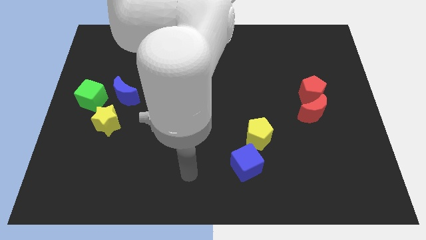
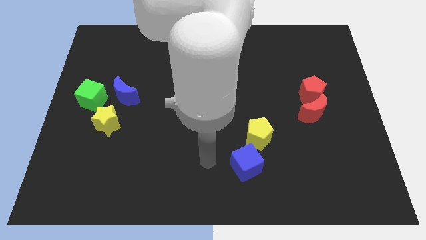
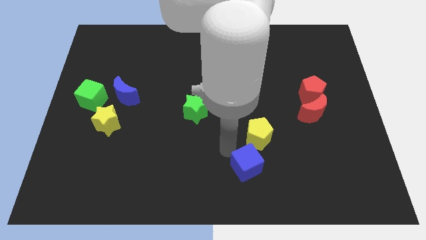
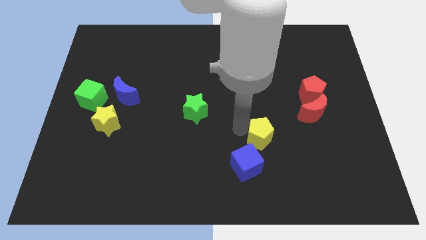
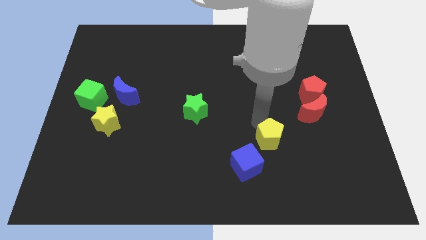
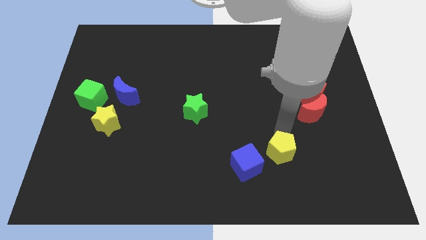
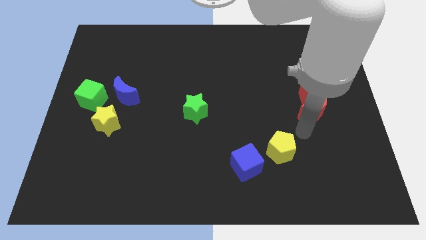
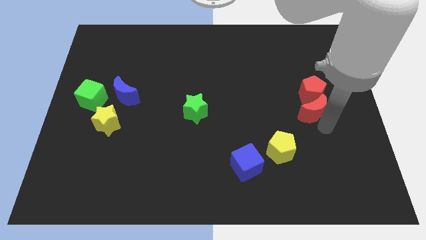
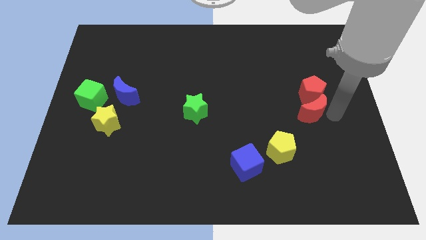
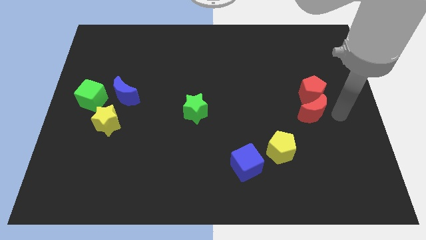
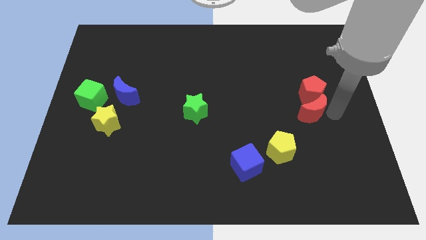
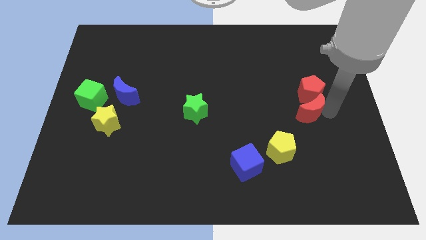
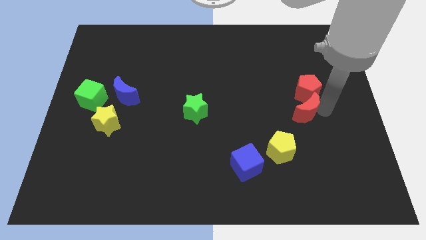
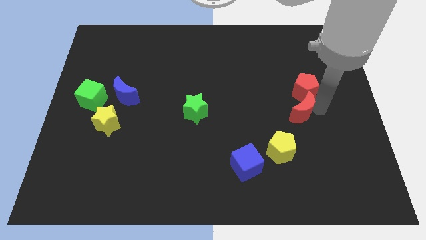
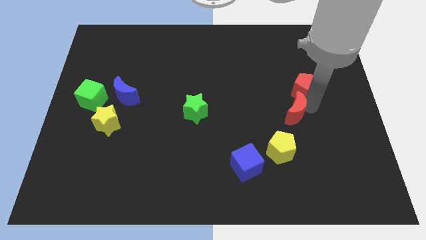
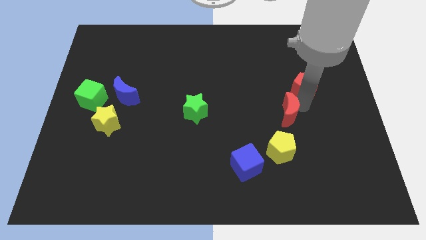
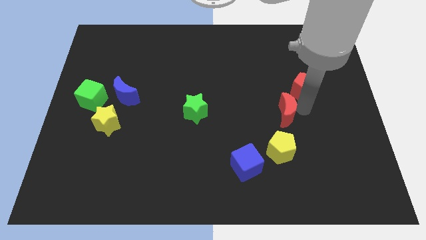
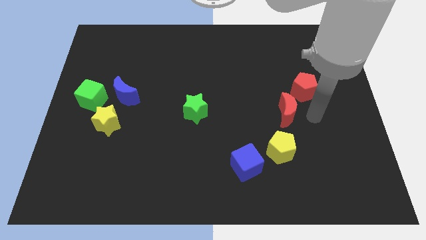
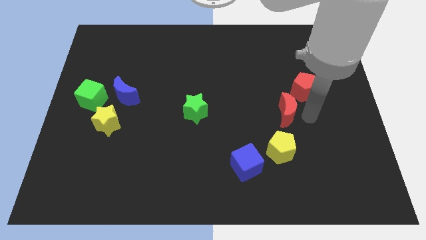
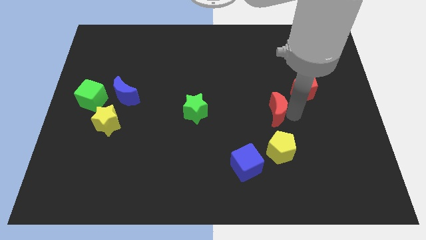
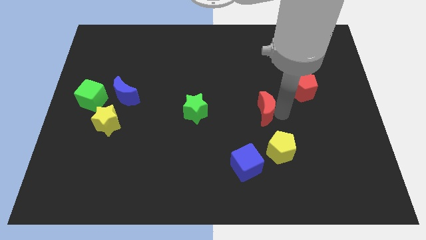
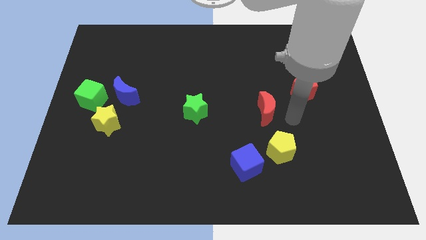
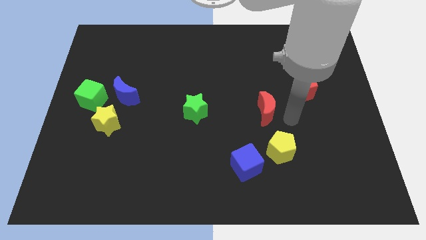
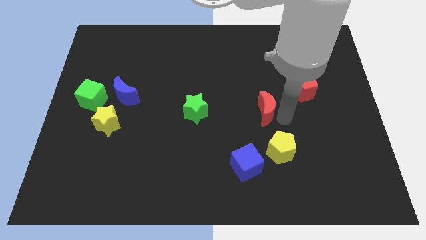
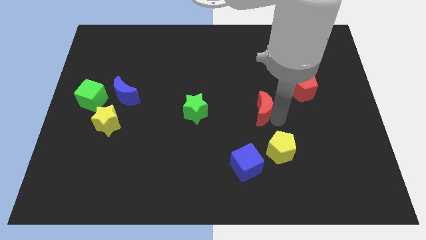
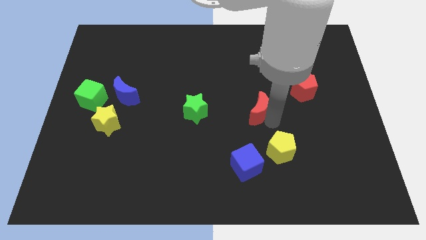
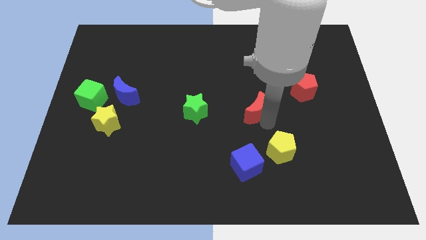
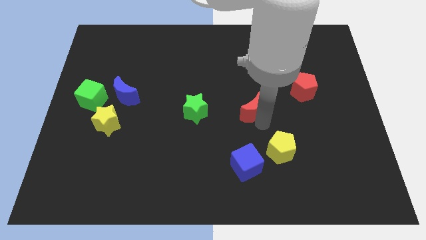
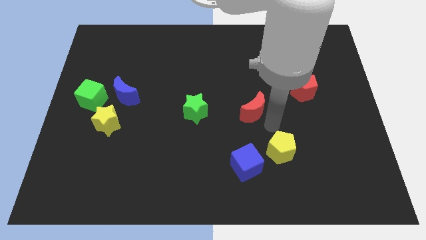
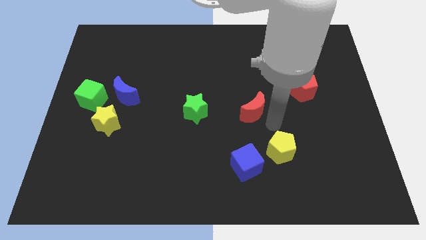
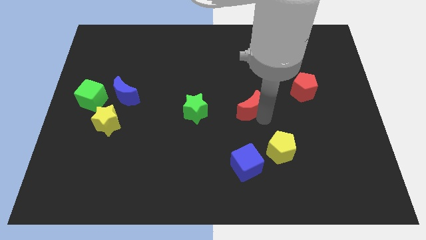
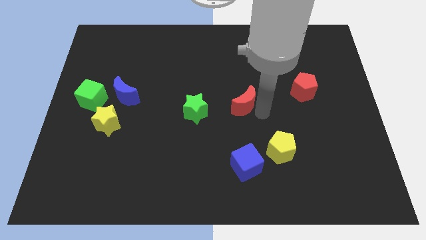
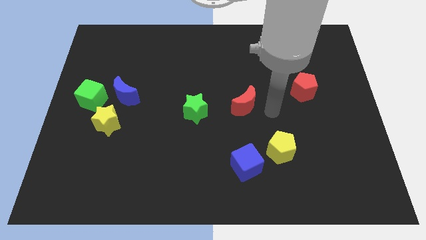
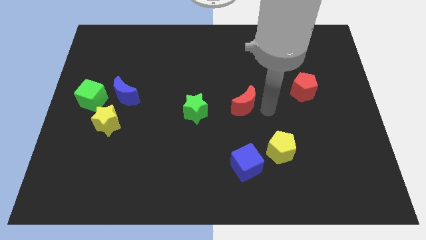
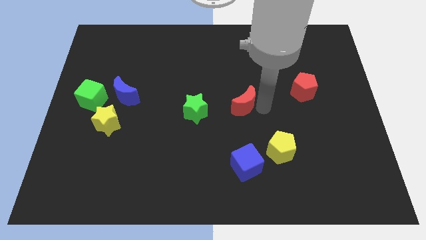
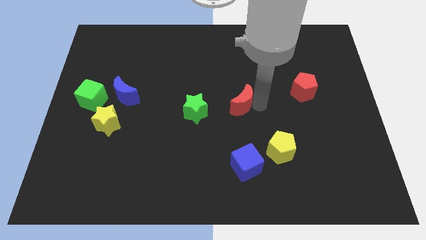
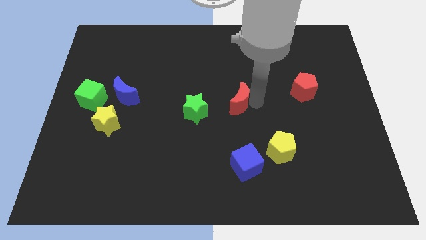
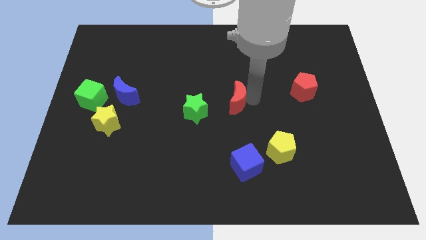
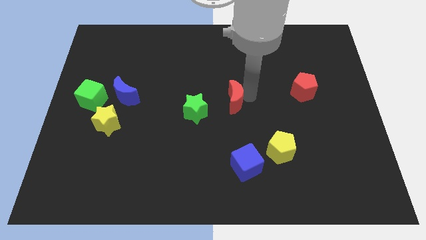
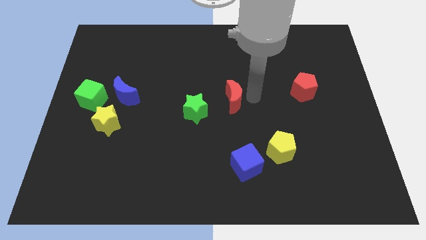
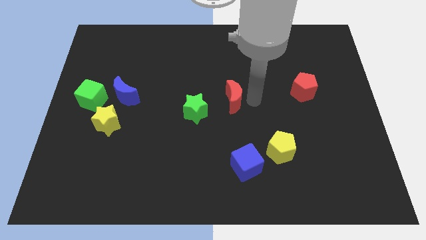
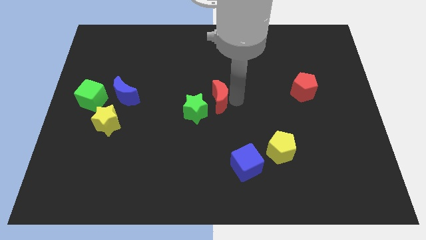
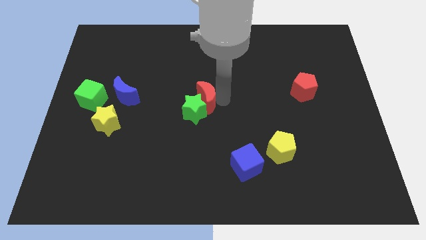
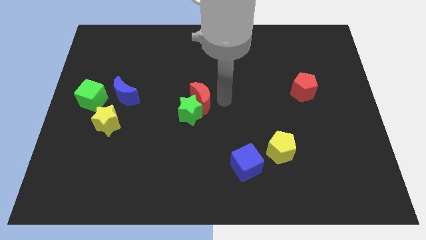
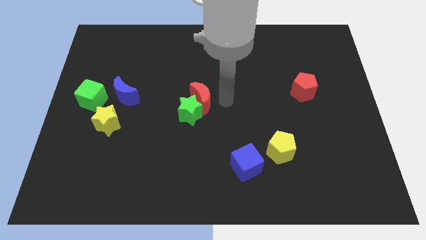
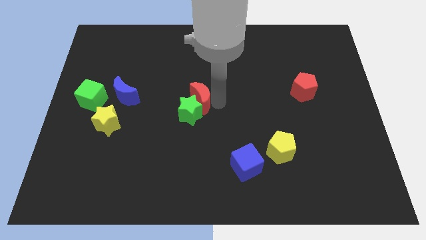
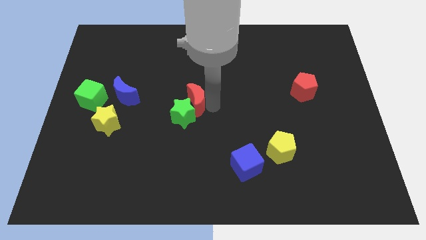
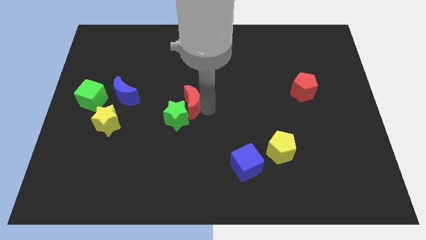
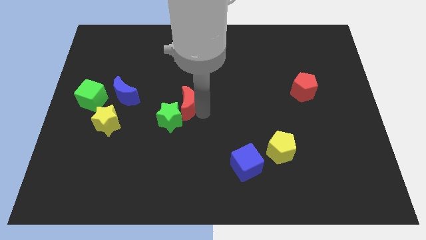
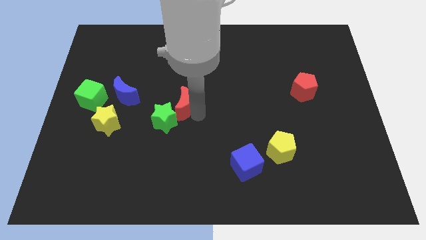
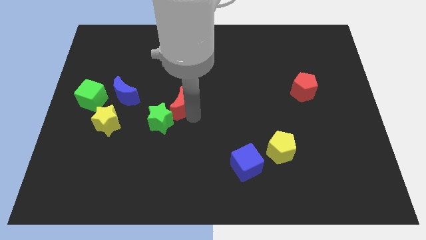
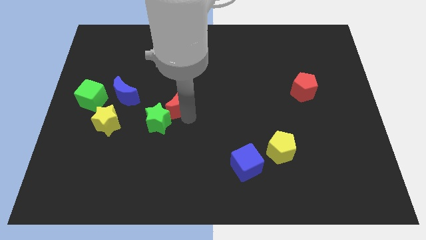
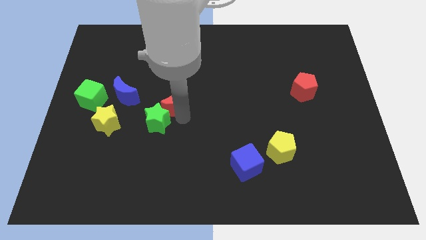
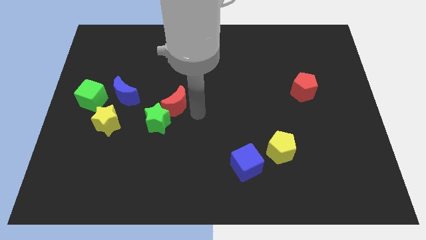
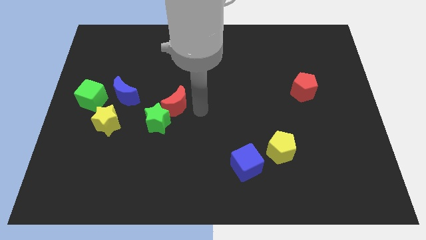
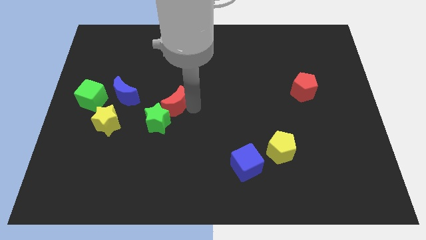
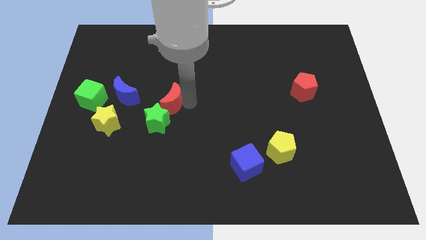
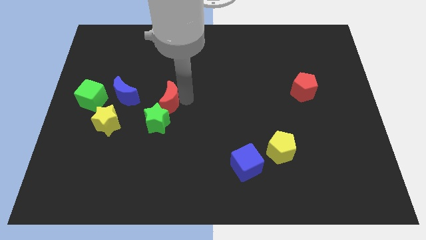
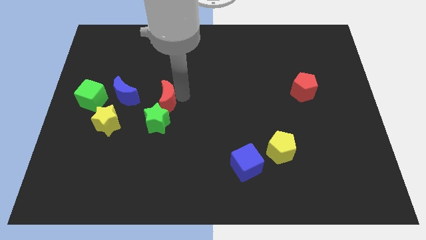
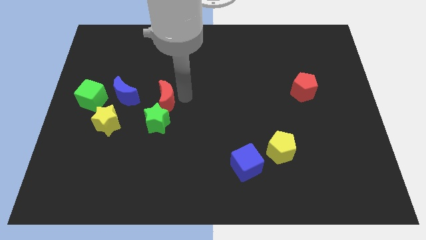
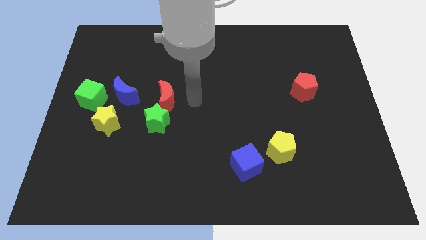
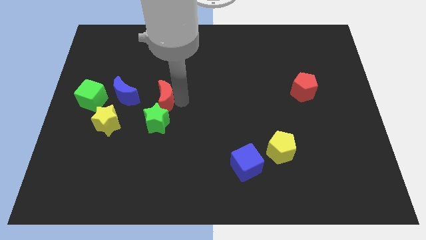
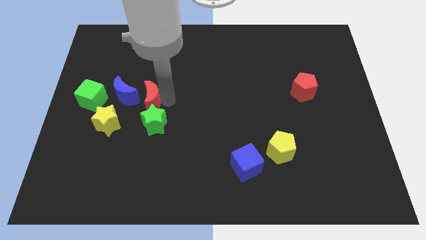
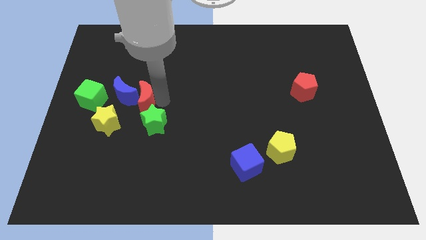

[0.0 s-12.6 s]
push the red moon towards the blue moon

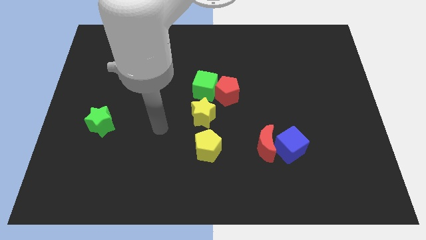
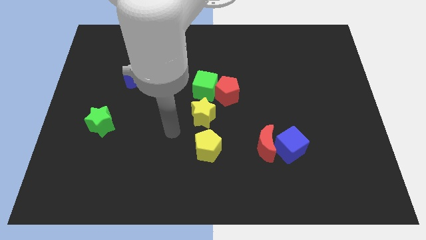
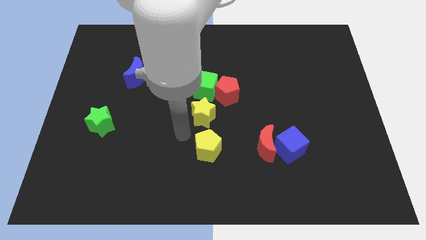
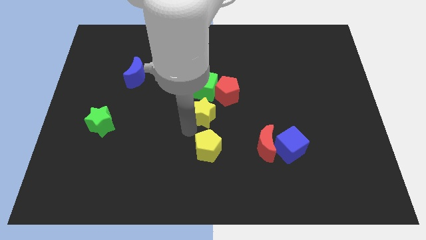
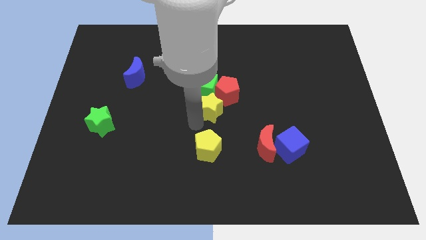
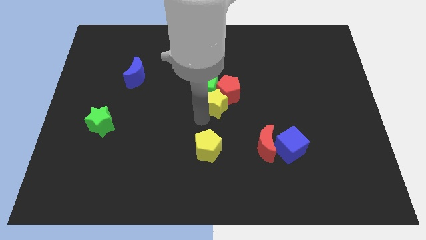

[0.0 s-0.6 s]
slide the yellow star close to the red pentagon

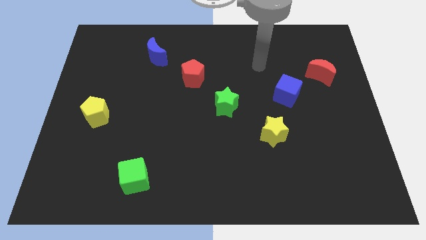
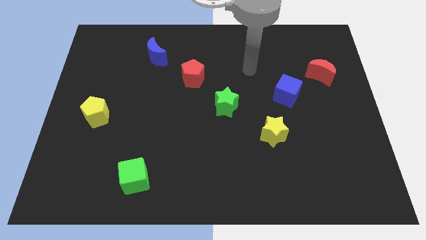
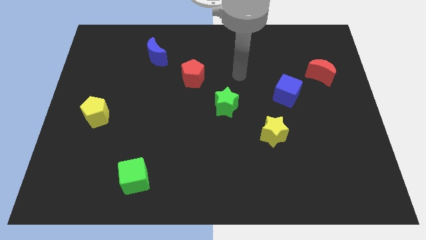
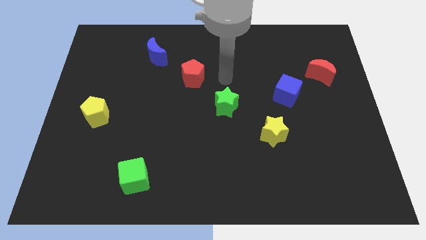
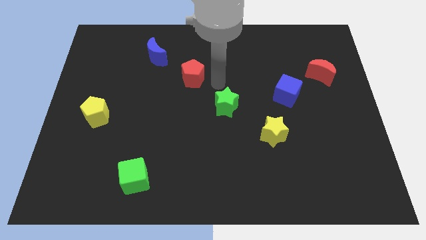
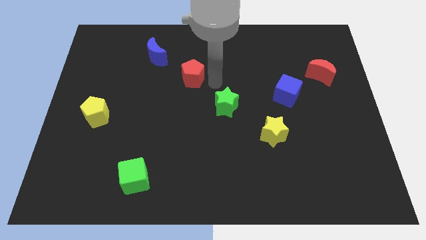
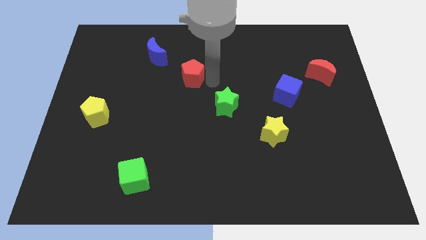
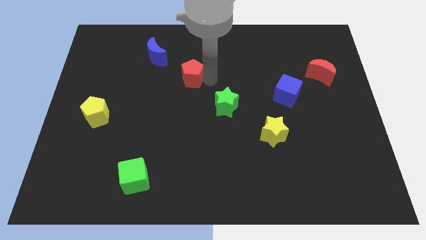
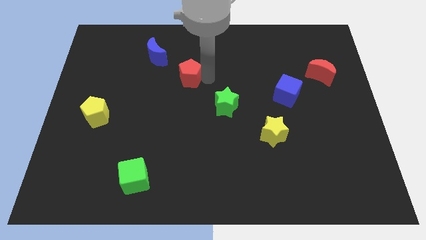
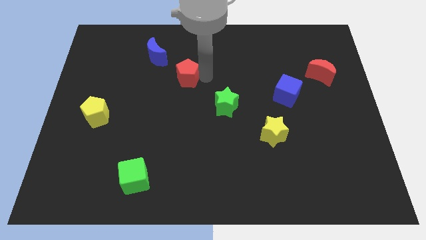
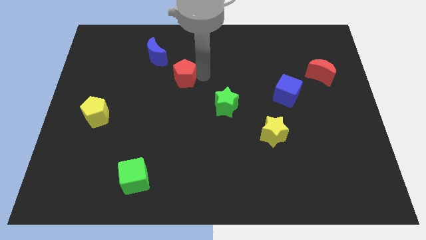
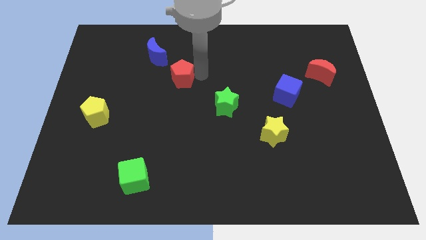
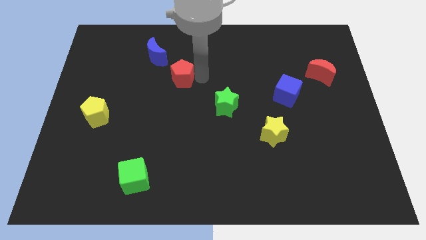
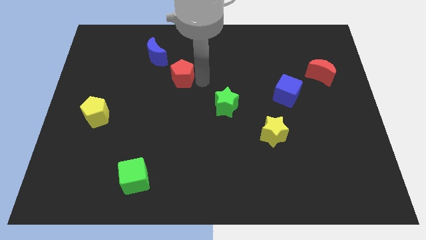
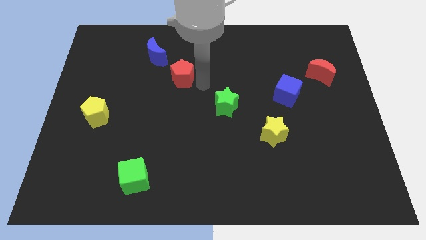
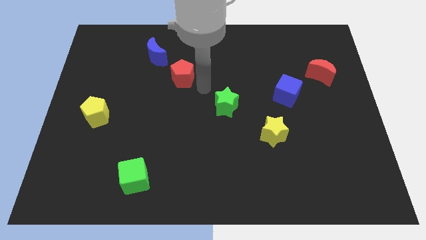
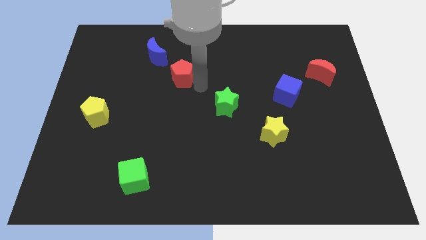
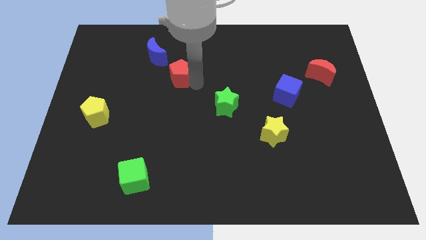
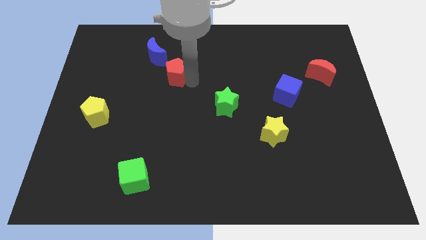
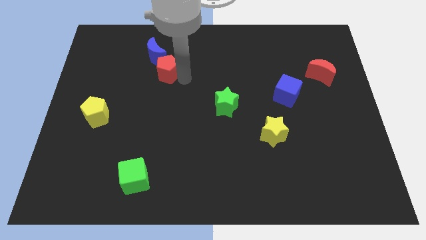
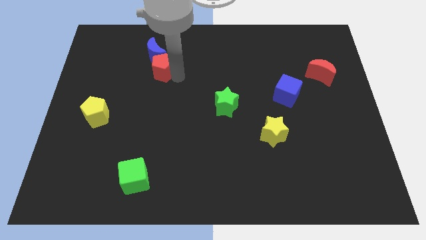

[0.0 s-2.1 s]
move the red pentagon close to the blue moon
